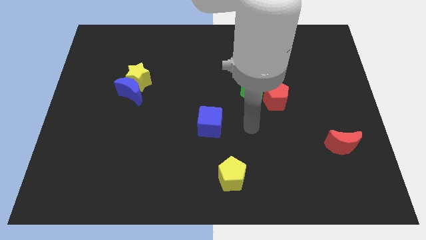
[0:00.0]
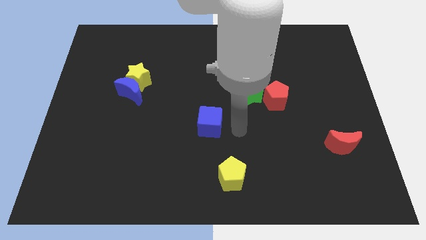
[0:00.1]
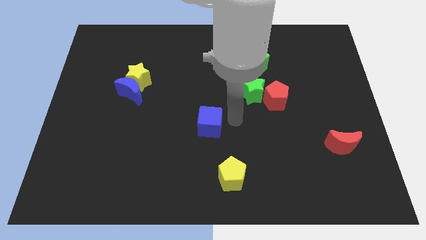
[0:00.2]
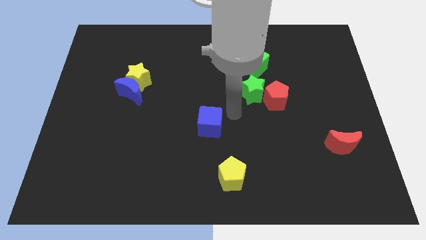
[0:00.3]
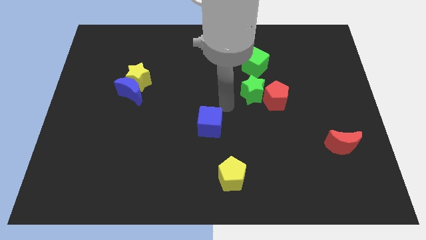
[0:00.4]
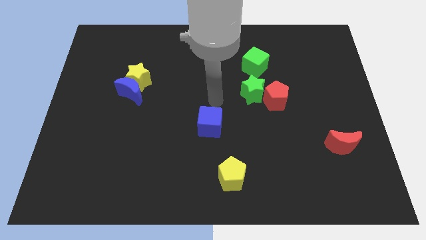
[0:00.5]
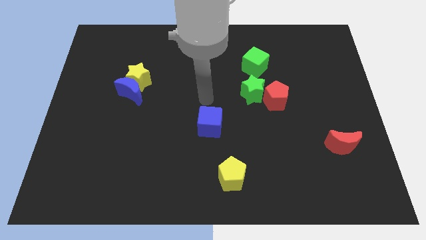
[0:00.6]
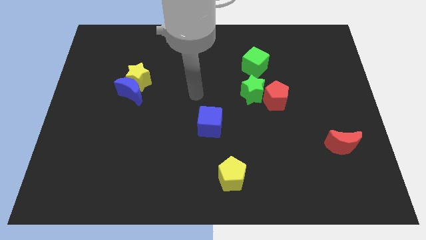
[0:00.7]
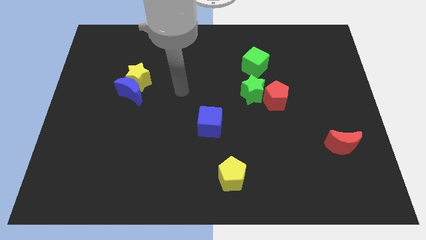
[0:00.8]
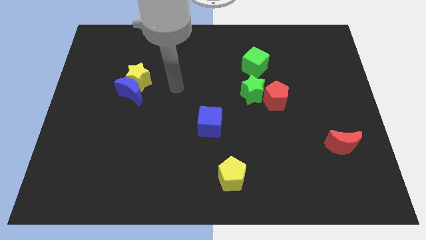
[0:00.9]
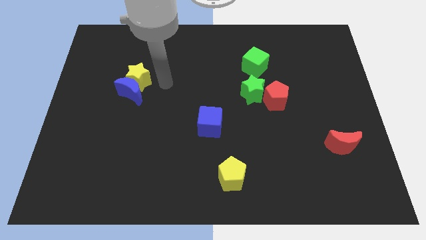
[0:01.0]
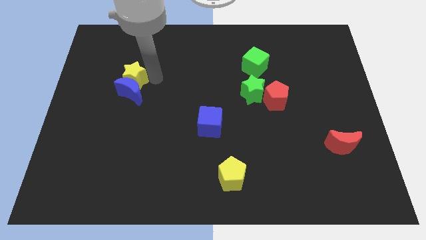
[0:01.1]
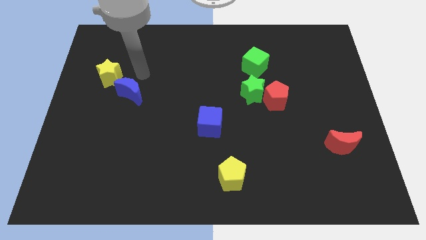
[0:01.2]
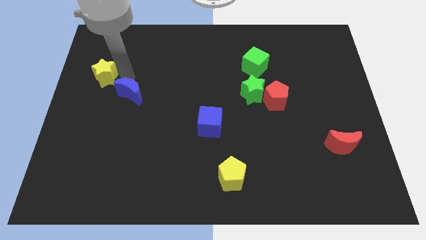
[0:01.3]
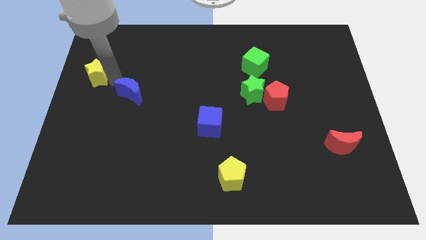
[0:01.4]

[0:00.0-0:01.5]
move the blue moon away from the yellow star

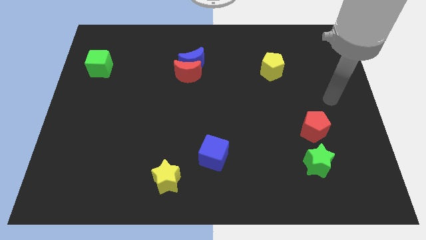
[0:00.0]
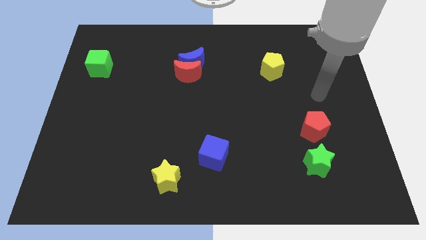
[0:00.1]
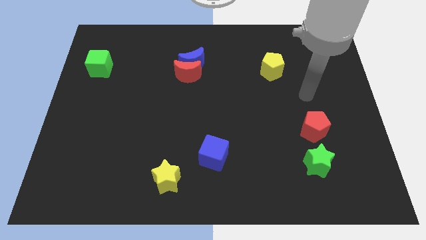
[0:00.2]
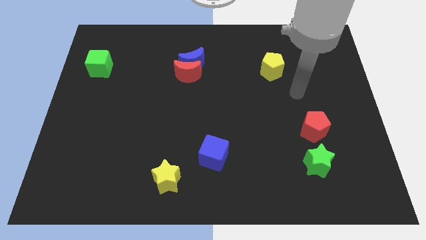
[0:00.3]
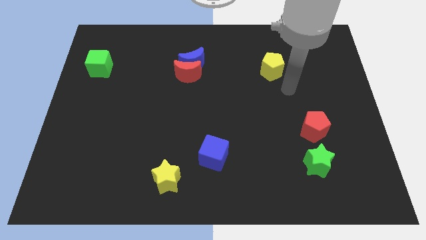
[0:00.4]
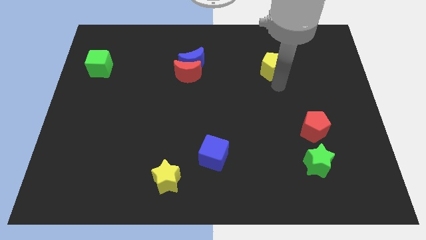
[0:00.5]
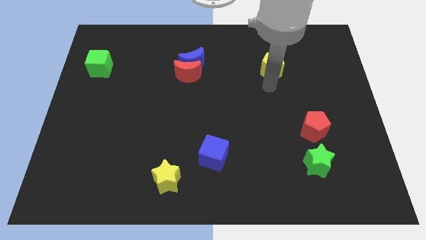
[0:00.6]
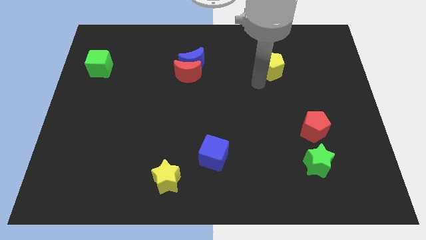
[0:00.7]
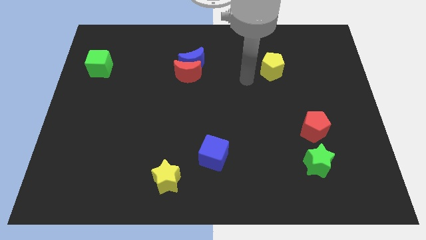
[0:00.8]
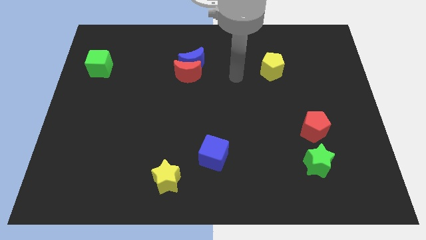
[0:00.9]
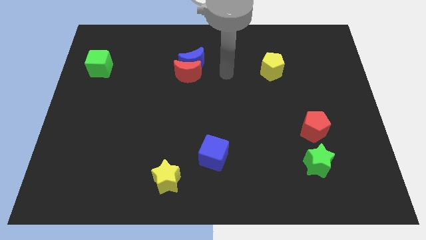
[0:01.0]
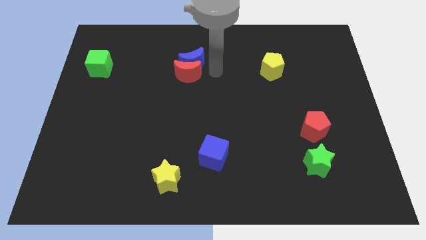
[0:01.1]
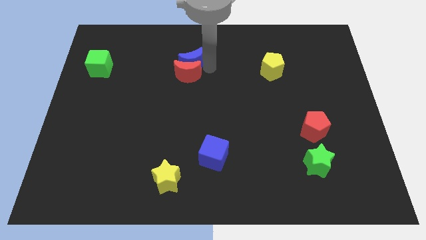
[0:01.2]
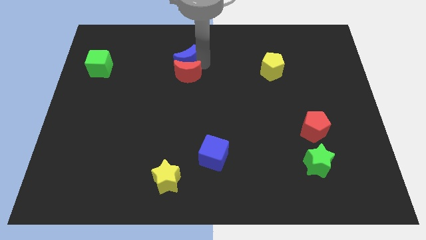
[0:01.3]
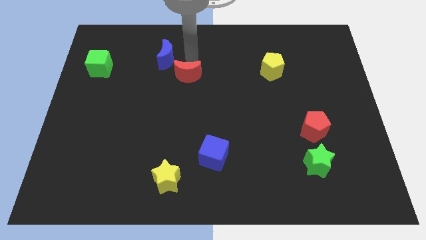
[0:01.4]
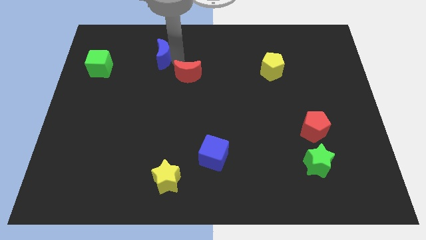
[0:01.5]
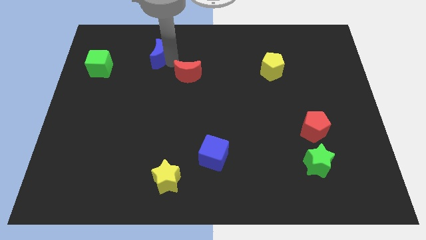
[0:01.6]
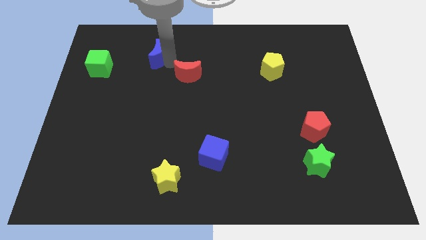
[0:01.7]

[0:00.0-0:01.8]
move the red moon away from the blue moon

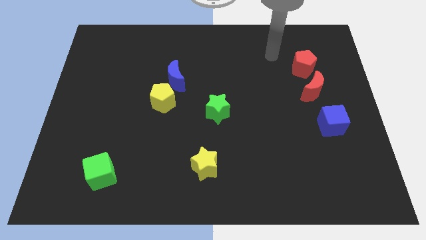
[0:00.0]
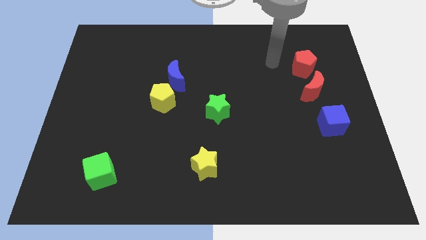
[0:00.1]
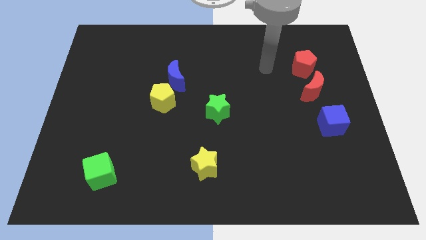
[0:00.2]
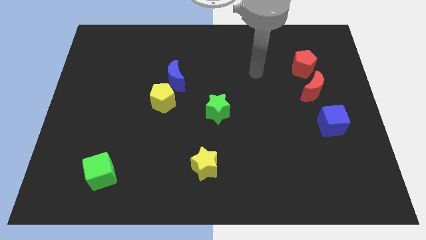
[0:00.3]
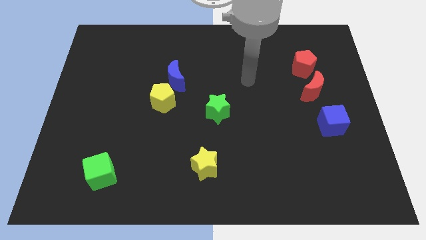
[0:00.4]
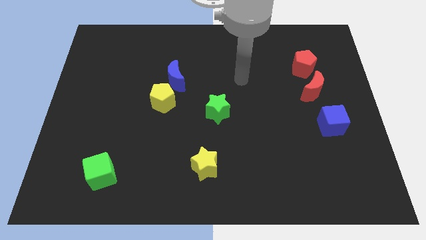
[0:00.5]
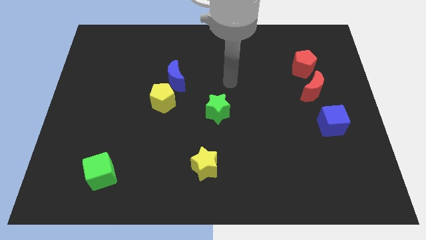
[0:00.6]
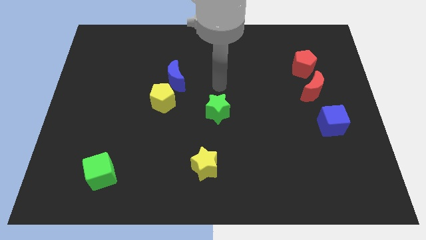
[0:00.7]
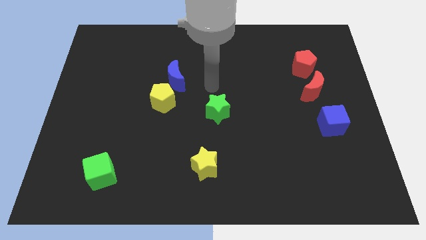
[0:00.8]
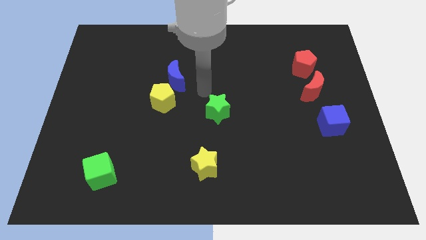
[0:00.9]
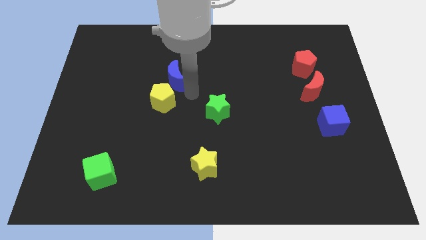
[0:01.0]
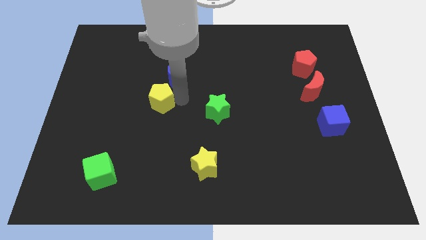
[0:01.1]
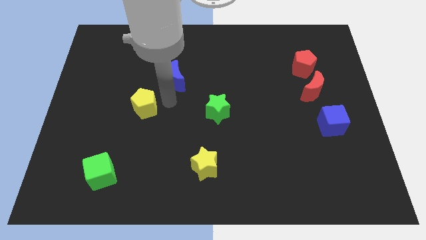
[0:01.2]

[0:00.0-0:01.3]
pull the blue moon apart from the yellow pentagon

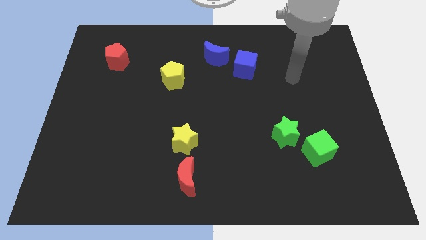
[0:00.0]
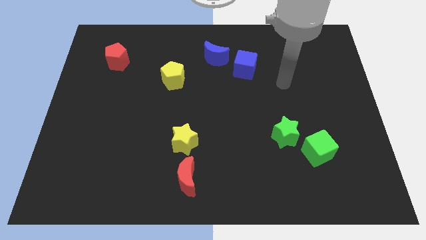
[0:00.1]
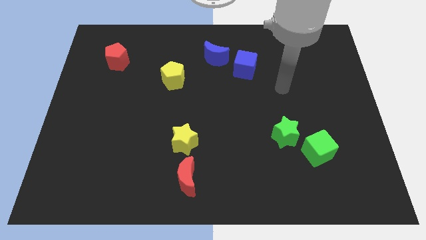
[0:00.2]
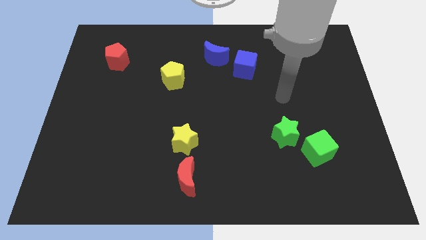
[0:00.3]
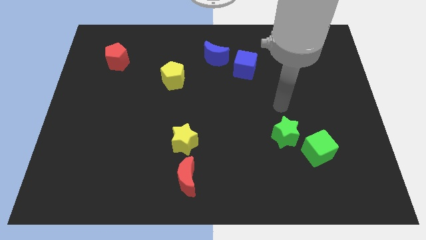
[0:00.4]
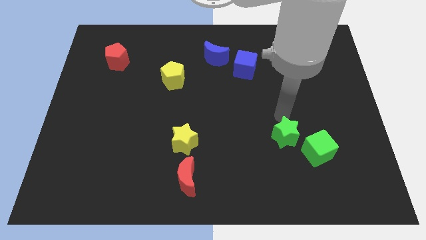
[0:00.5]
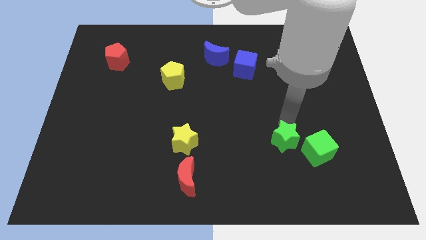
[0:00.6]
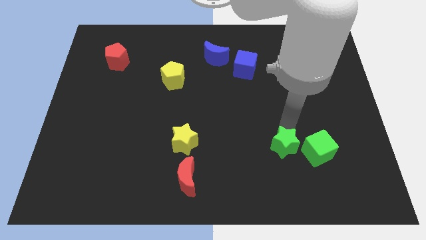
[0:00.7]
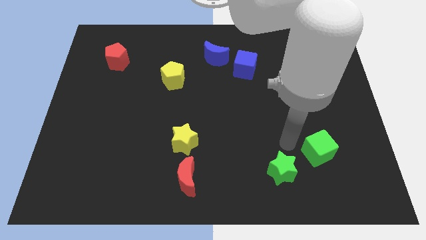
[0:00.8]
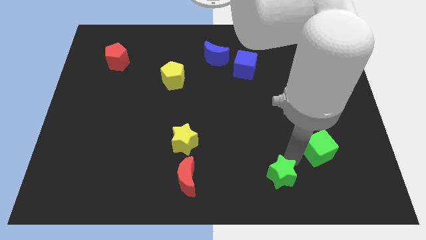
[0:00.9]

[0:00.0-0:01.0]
separate the green cube from the green star

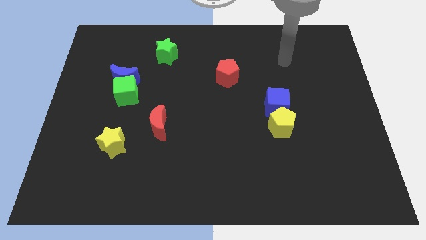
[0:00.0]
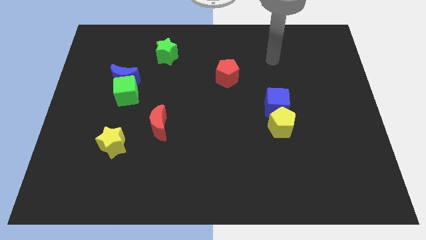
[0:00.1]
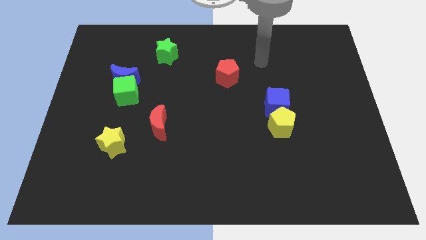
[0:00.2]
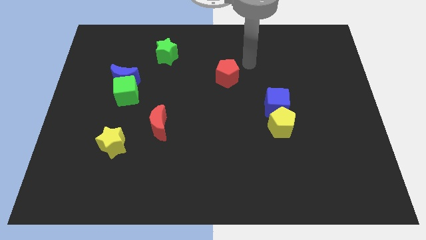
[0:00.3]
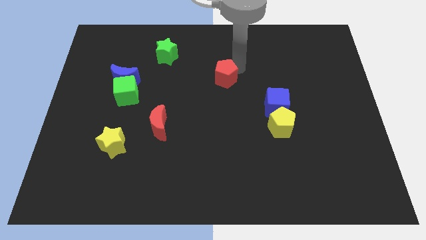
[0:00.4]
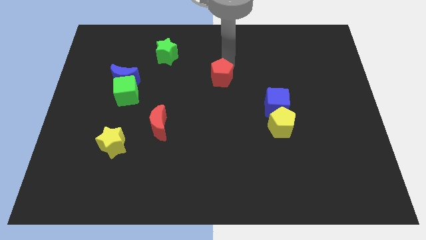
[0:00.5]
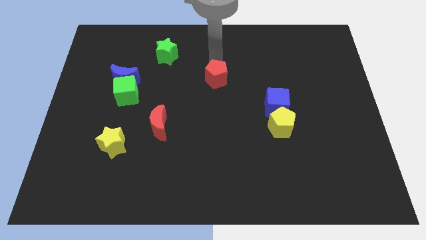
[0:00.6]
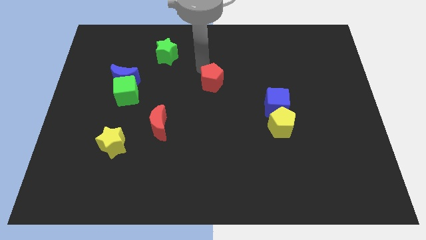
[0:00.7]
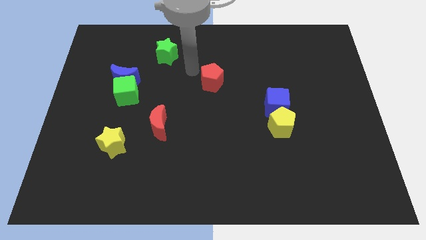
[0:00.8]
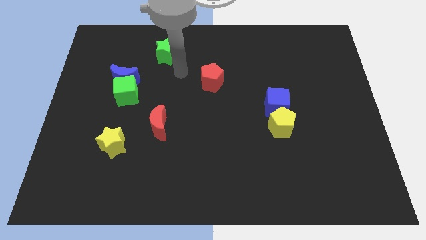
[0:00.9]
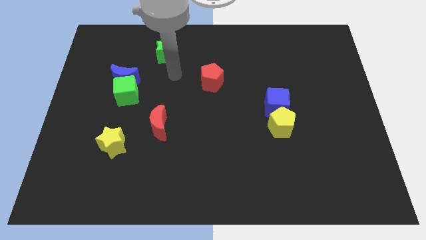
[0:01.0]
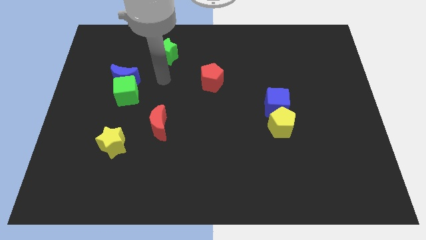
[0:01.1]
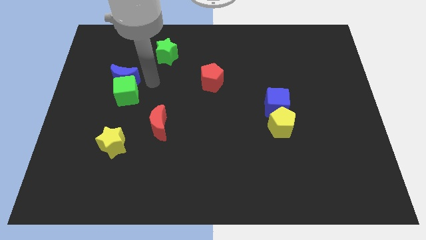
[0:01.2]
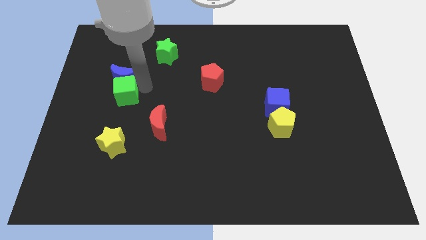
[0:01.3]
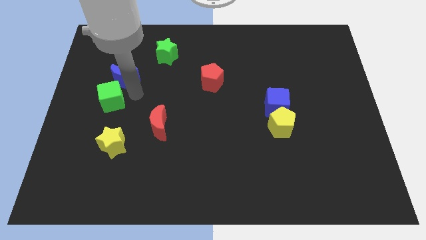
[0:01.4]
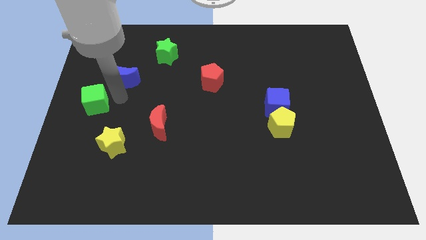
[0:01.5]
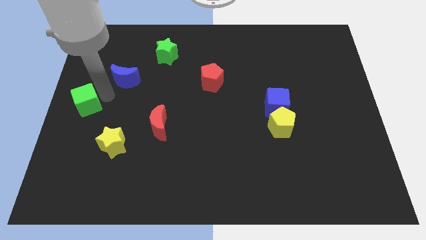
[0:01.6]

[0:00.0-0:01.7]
separate the blue moon from the green cube

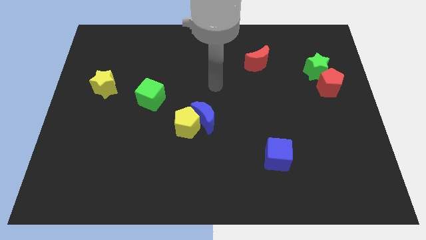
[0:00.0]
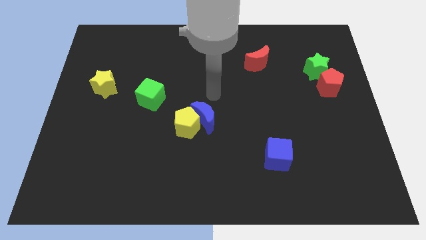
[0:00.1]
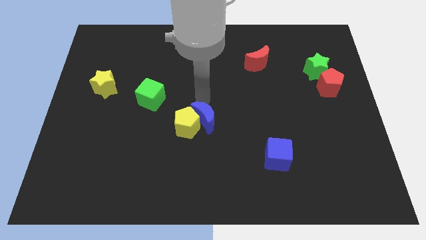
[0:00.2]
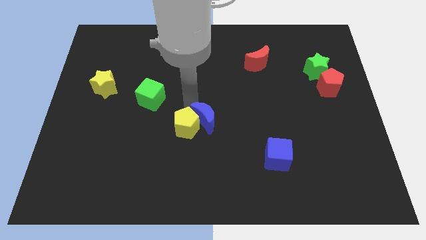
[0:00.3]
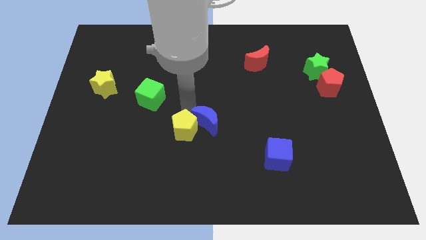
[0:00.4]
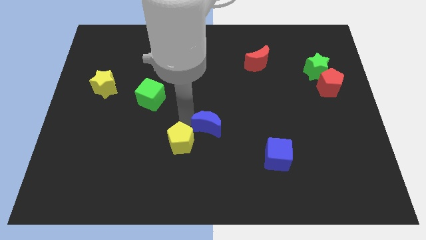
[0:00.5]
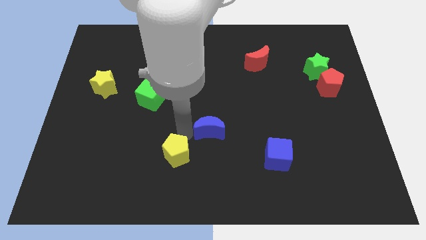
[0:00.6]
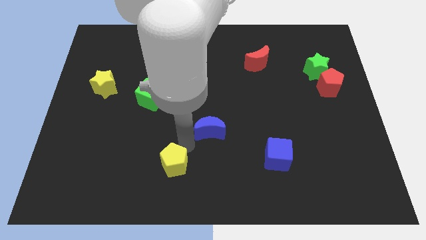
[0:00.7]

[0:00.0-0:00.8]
move the blue moon away from the yellow pentagon

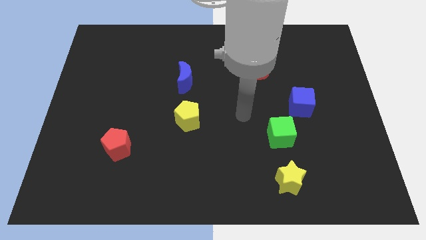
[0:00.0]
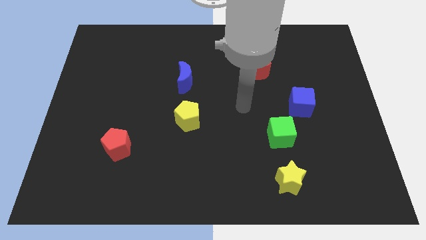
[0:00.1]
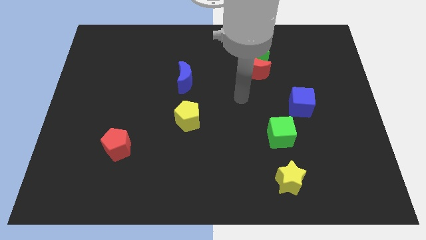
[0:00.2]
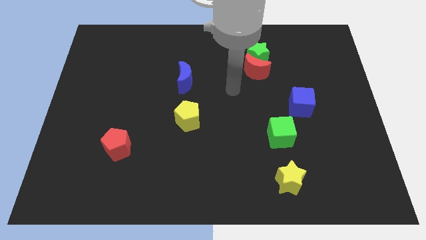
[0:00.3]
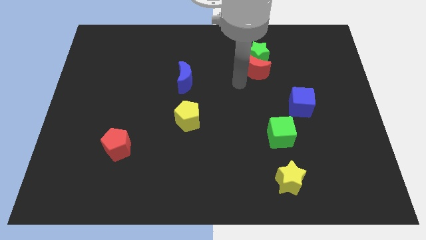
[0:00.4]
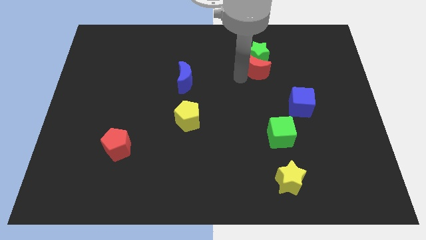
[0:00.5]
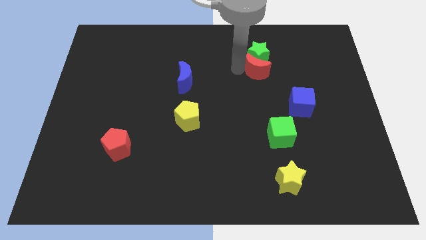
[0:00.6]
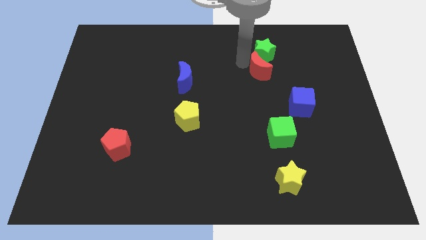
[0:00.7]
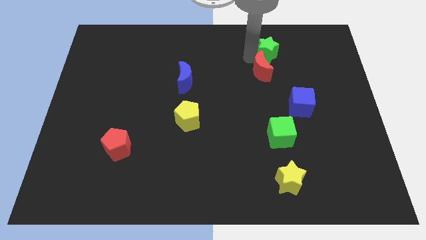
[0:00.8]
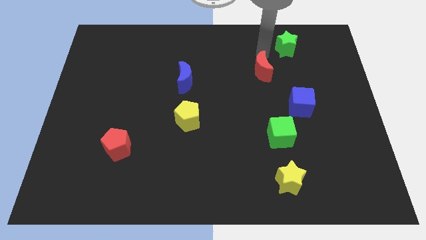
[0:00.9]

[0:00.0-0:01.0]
pull the red moon apart from the green star
